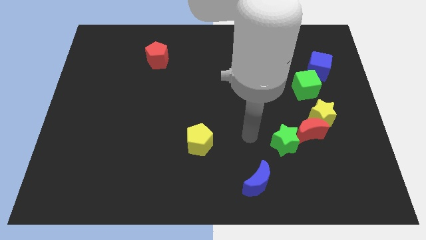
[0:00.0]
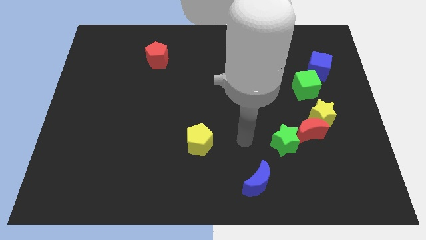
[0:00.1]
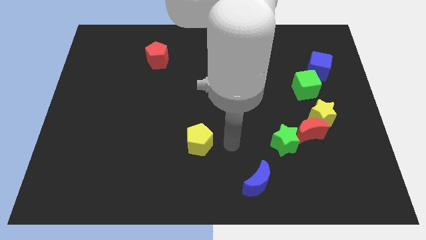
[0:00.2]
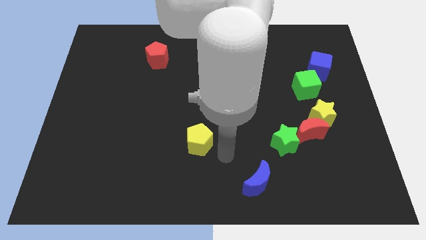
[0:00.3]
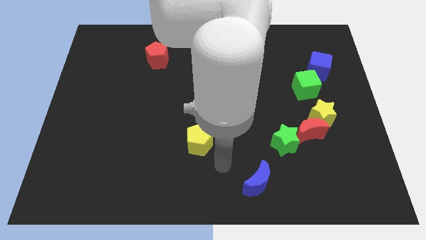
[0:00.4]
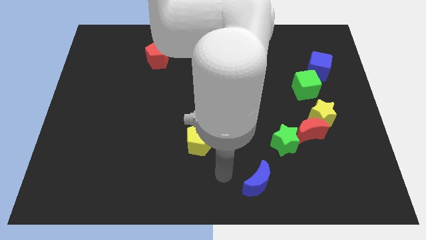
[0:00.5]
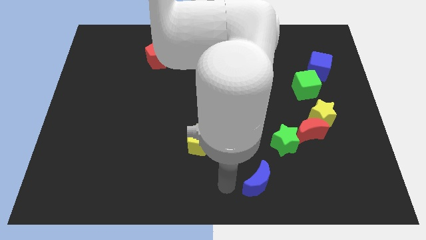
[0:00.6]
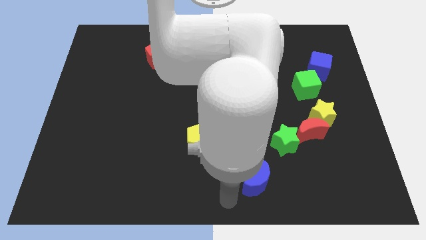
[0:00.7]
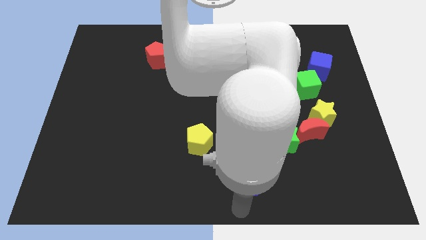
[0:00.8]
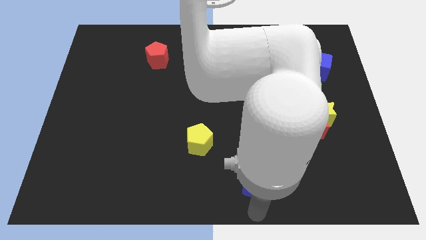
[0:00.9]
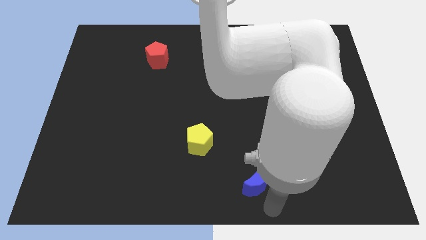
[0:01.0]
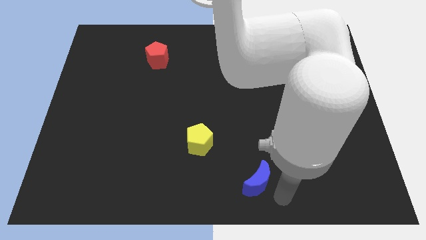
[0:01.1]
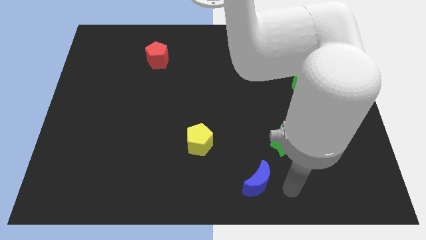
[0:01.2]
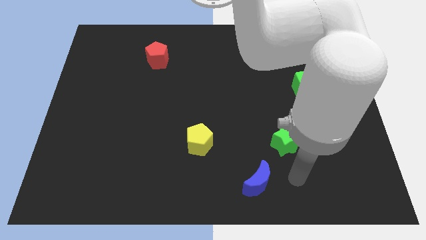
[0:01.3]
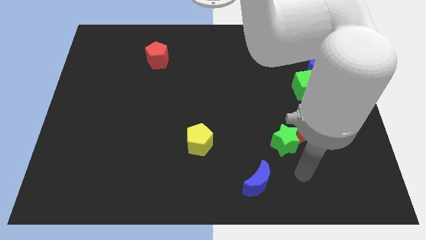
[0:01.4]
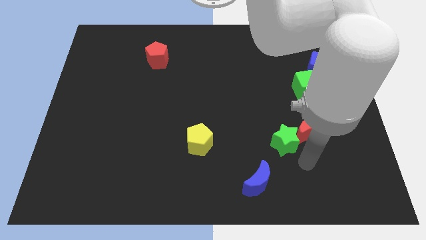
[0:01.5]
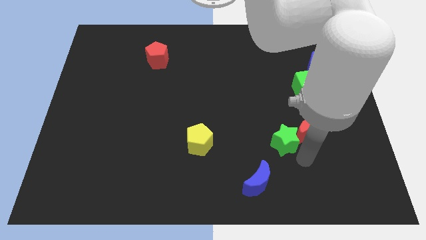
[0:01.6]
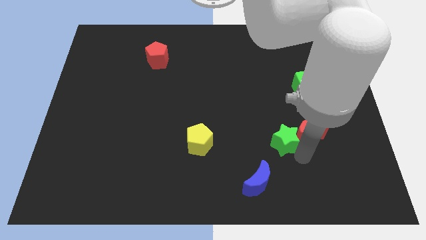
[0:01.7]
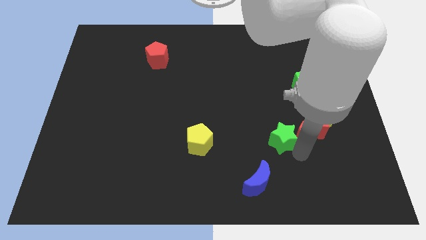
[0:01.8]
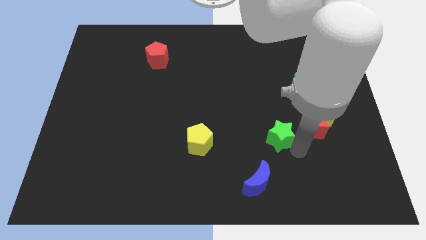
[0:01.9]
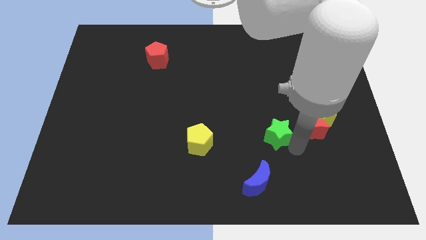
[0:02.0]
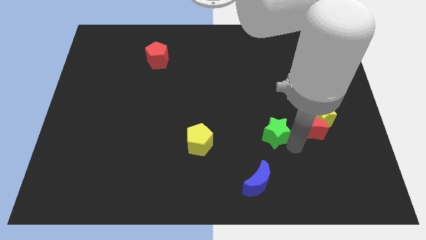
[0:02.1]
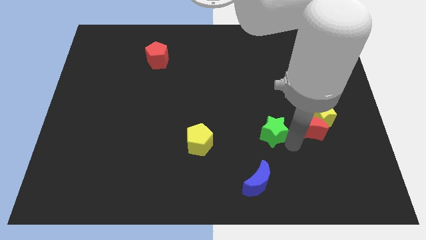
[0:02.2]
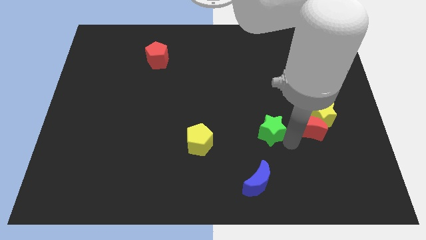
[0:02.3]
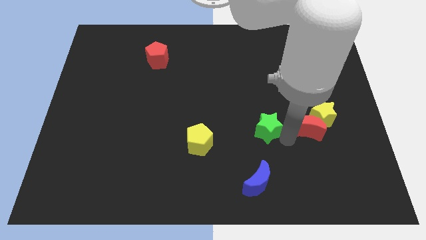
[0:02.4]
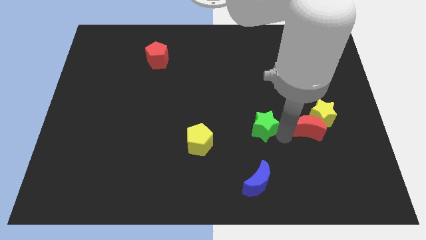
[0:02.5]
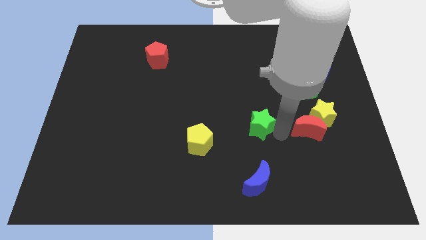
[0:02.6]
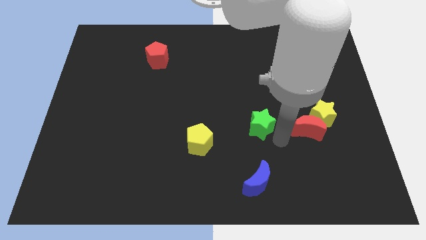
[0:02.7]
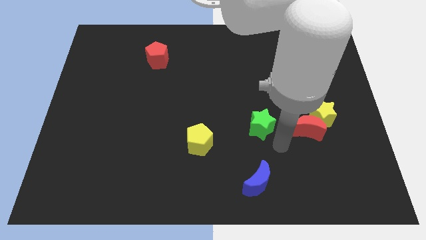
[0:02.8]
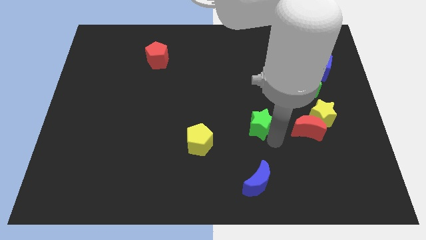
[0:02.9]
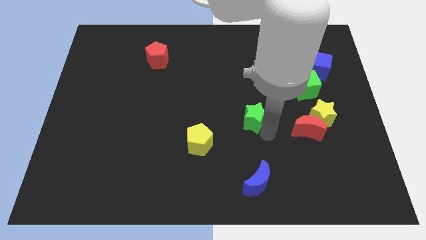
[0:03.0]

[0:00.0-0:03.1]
push the green star up and then to the left a little bit

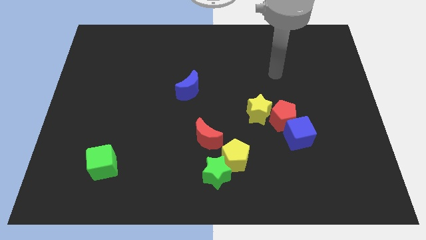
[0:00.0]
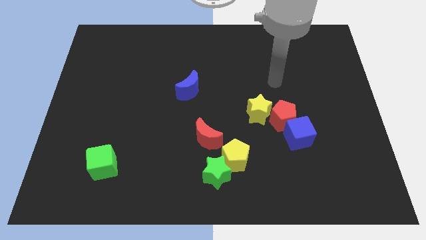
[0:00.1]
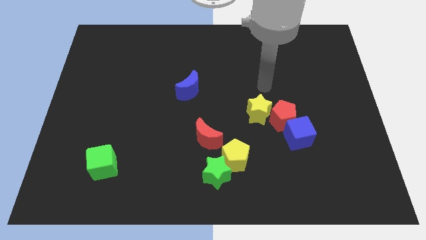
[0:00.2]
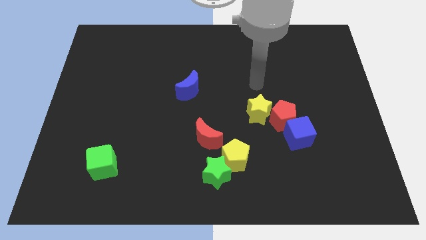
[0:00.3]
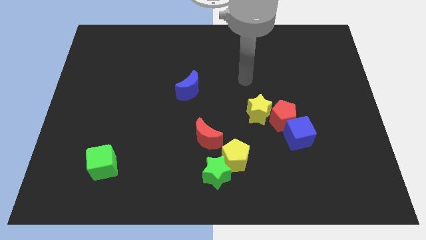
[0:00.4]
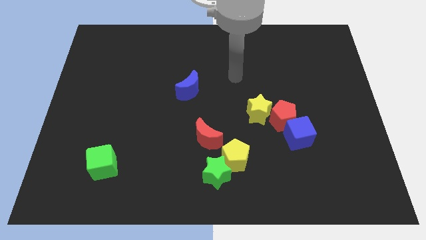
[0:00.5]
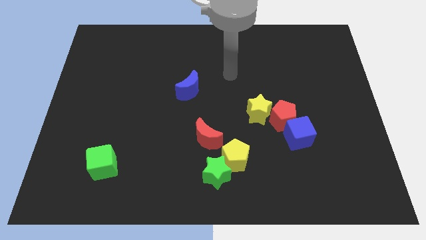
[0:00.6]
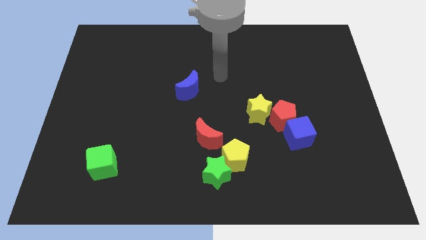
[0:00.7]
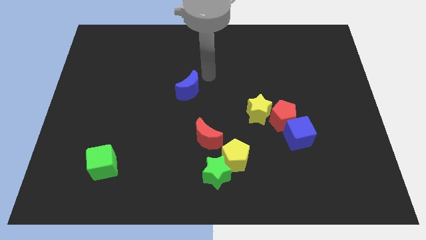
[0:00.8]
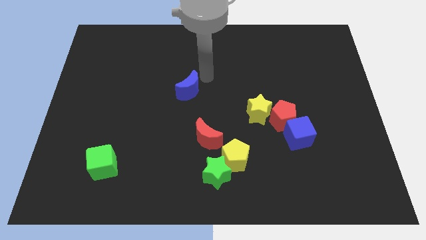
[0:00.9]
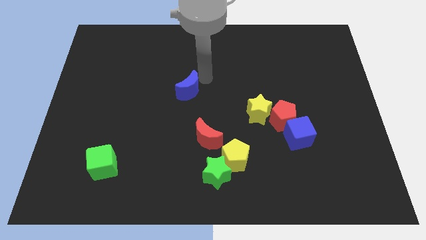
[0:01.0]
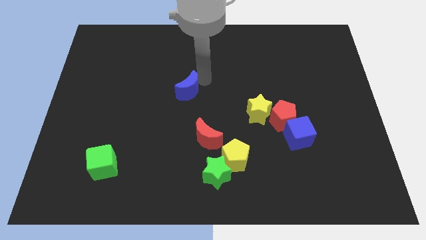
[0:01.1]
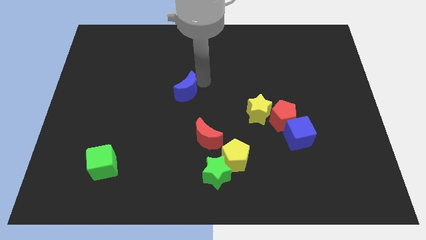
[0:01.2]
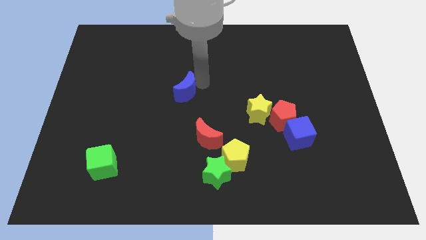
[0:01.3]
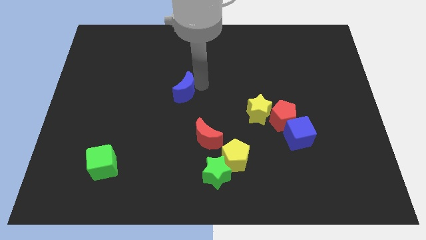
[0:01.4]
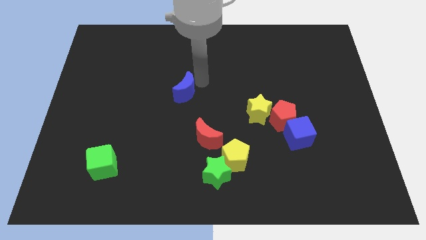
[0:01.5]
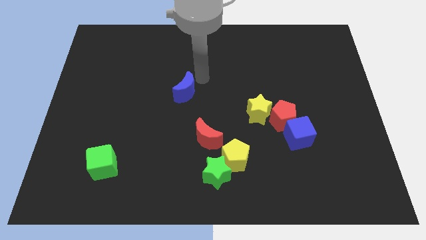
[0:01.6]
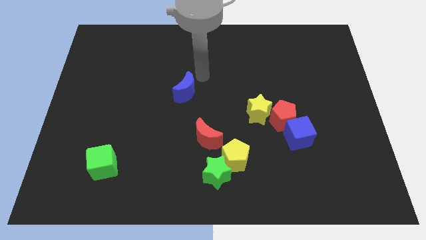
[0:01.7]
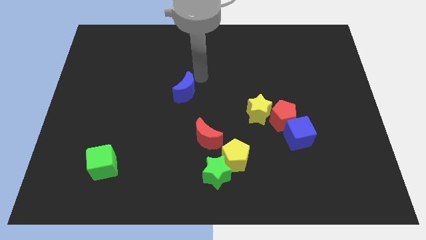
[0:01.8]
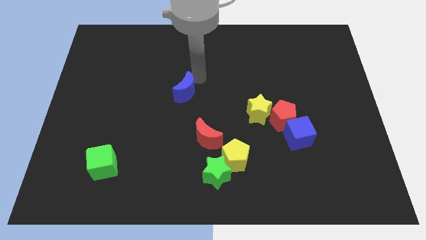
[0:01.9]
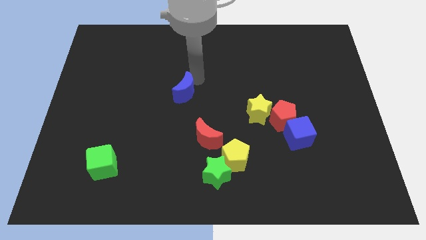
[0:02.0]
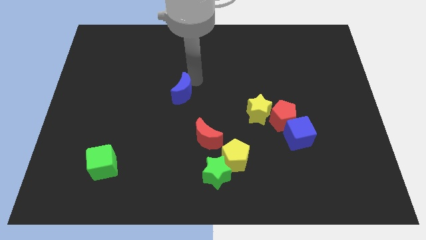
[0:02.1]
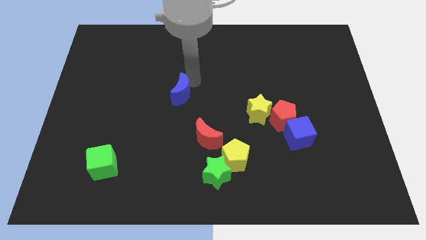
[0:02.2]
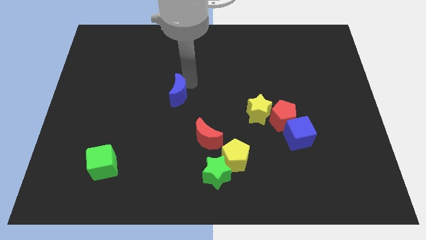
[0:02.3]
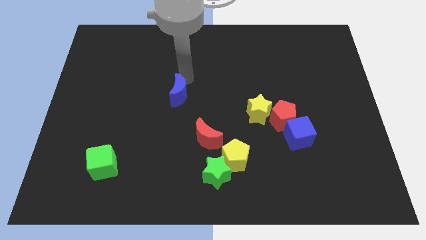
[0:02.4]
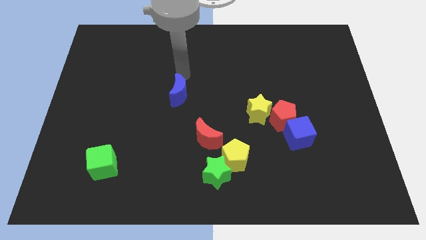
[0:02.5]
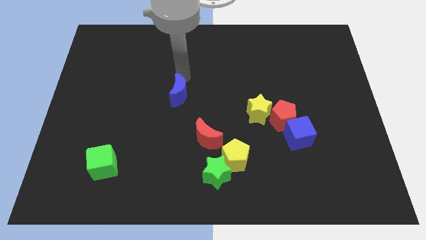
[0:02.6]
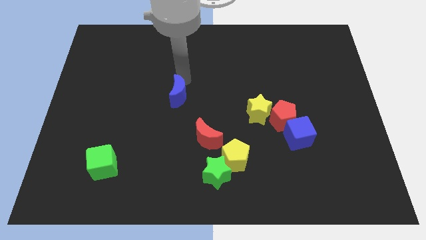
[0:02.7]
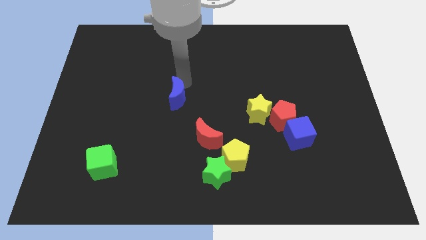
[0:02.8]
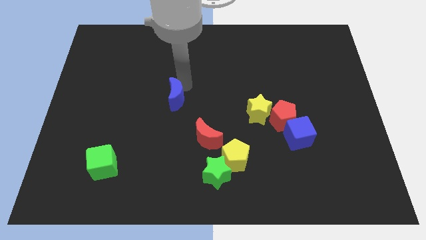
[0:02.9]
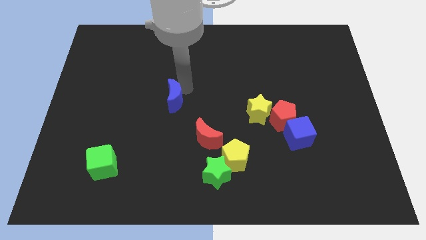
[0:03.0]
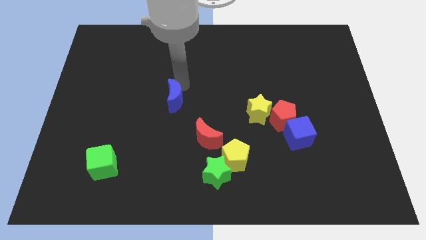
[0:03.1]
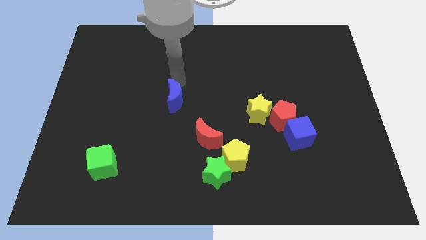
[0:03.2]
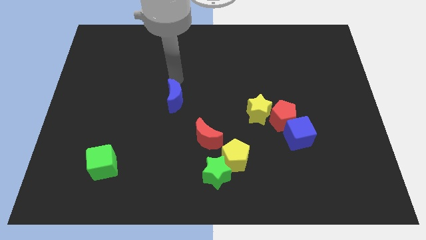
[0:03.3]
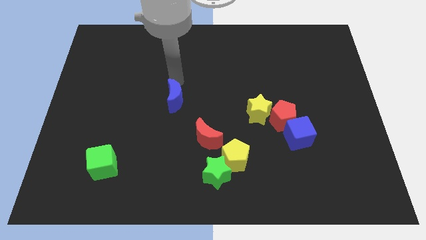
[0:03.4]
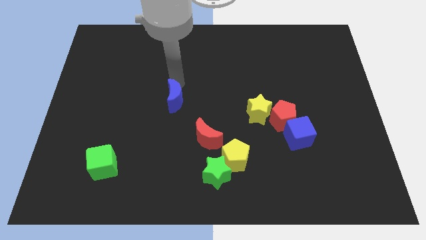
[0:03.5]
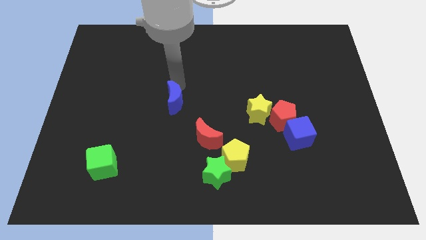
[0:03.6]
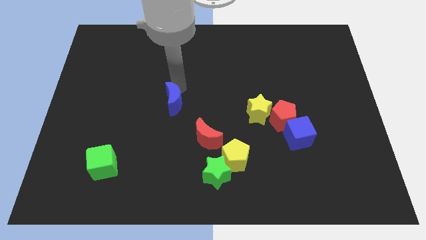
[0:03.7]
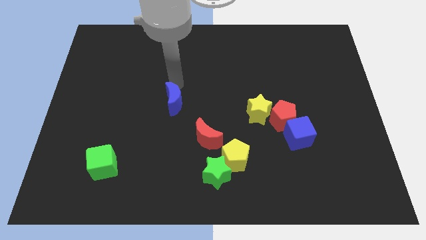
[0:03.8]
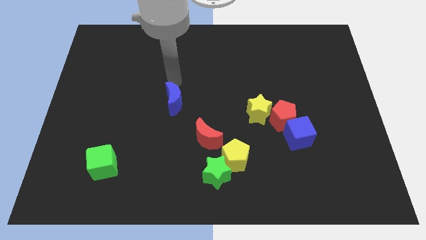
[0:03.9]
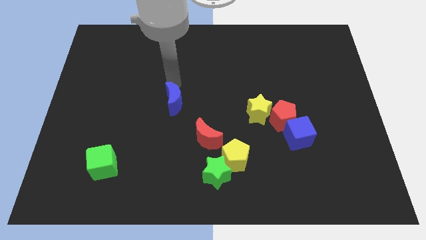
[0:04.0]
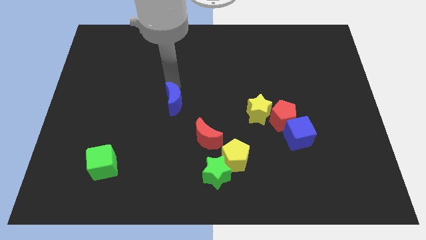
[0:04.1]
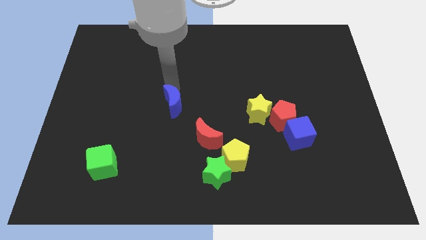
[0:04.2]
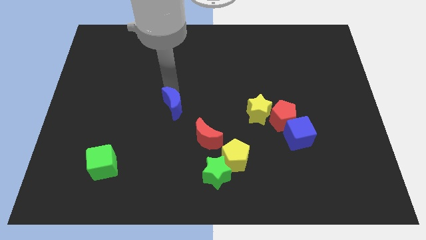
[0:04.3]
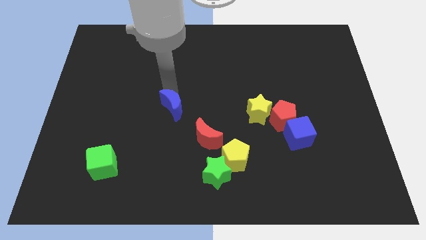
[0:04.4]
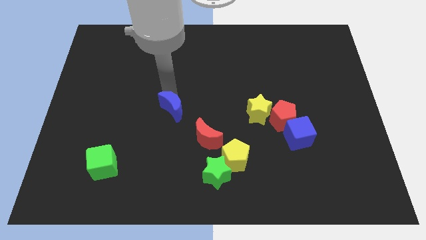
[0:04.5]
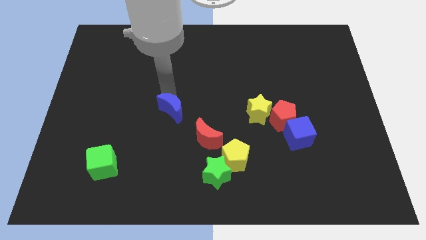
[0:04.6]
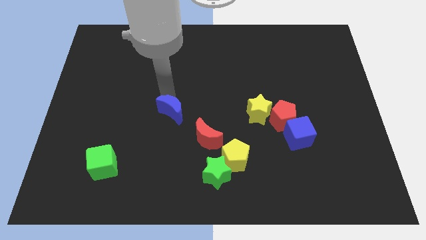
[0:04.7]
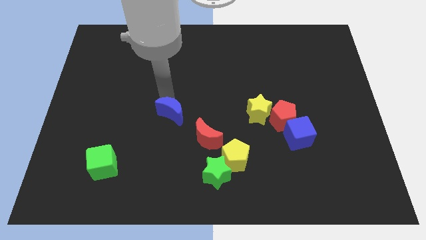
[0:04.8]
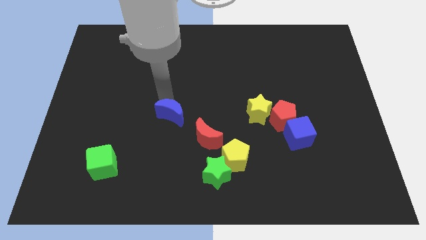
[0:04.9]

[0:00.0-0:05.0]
move the blue moon downwards a little

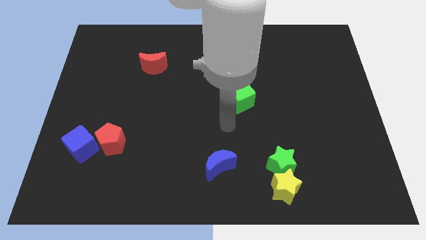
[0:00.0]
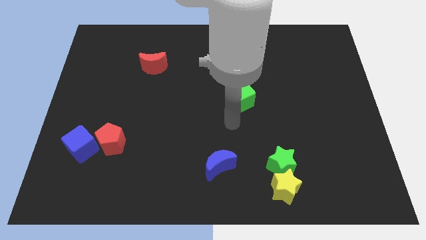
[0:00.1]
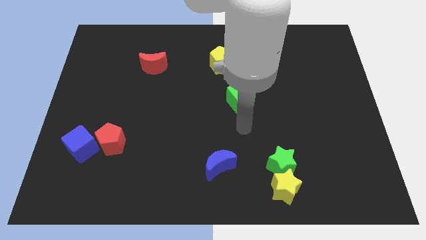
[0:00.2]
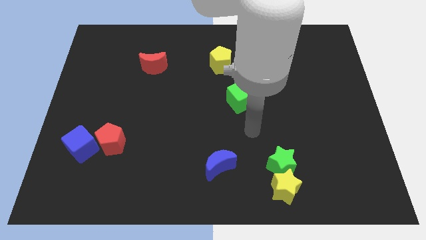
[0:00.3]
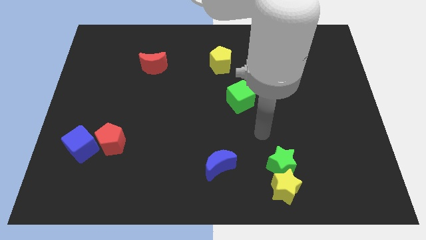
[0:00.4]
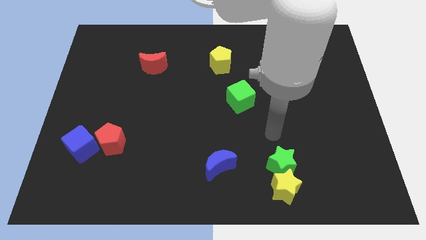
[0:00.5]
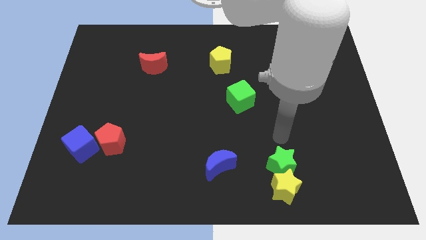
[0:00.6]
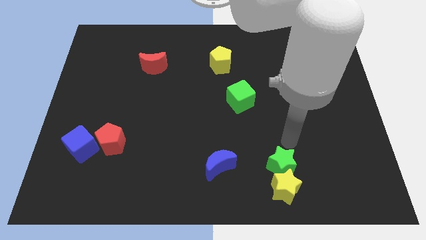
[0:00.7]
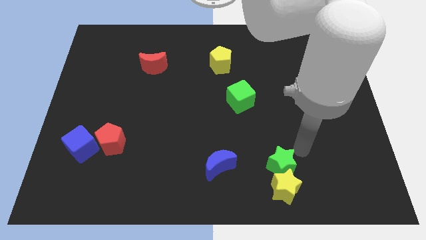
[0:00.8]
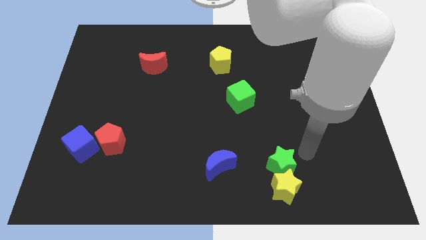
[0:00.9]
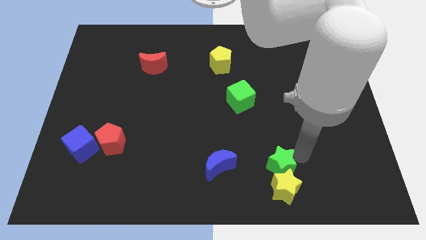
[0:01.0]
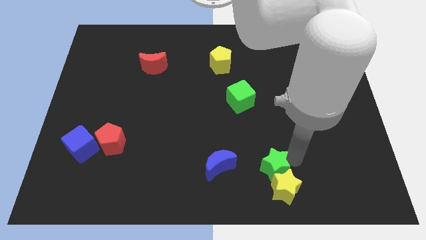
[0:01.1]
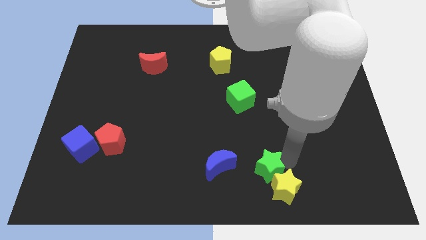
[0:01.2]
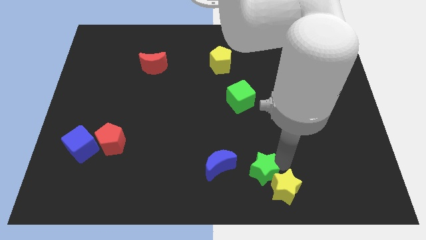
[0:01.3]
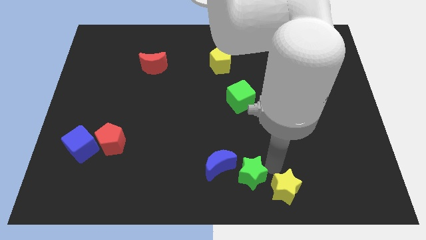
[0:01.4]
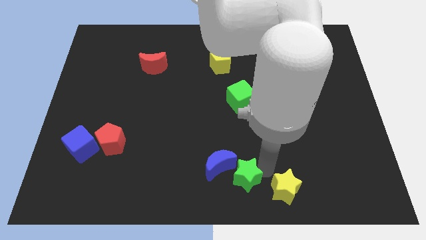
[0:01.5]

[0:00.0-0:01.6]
slightly push the green star left
